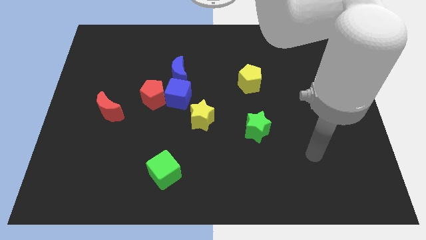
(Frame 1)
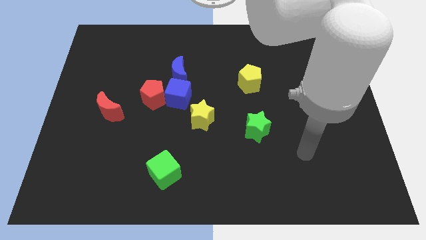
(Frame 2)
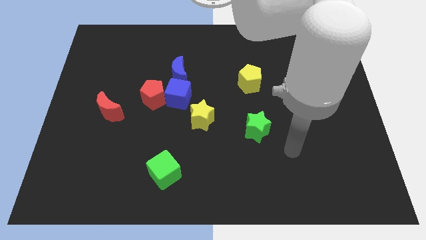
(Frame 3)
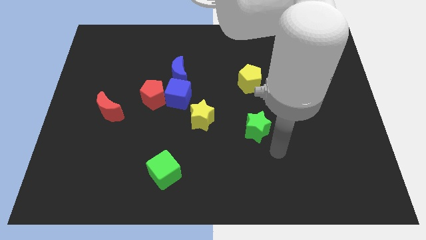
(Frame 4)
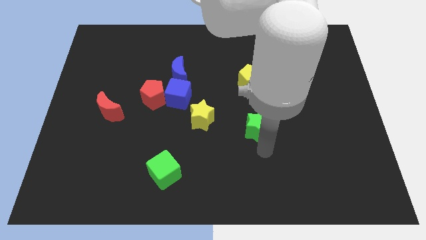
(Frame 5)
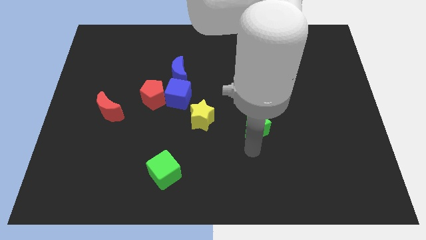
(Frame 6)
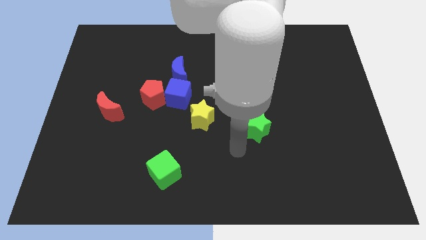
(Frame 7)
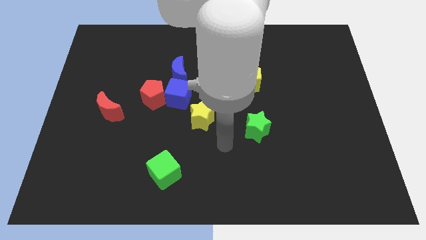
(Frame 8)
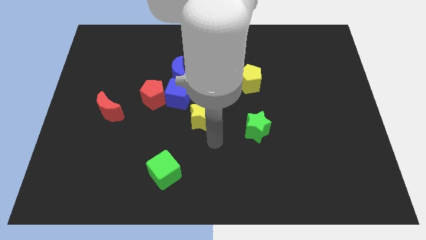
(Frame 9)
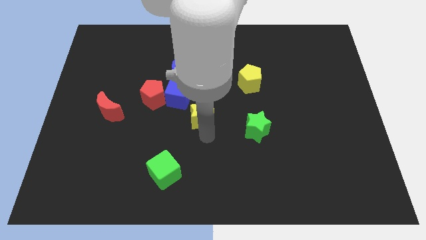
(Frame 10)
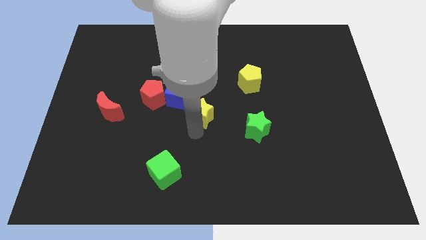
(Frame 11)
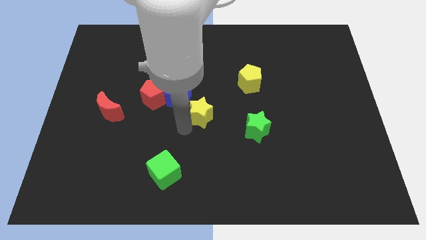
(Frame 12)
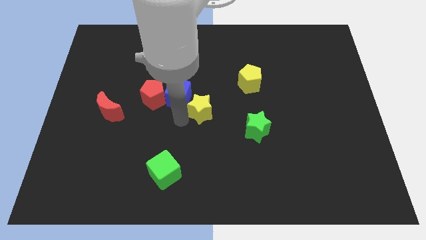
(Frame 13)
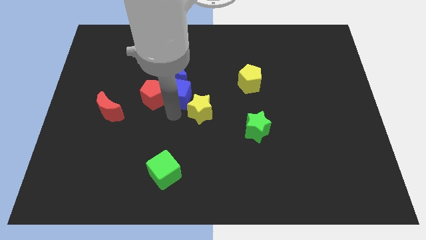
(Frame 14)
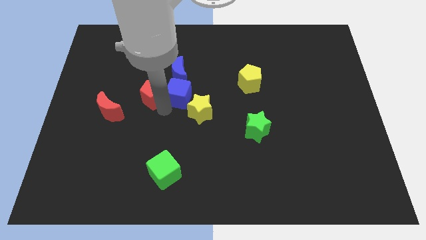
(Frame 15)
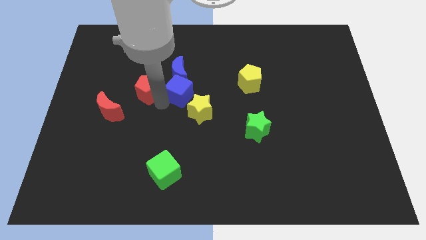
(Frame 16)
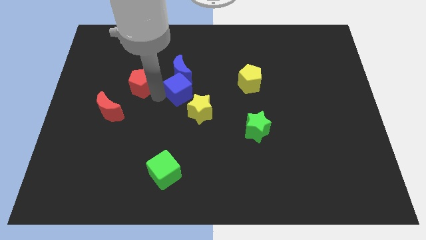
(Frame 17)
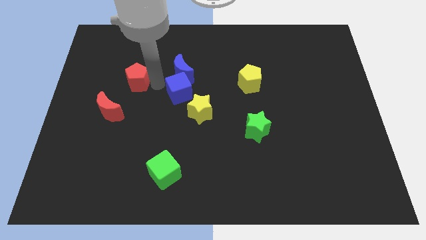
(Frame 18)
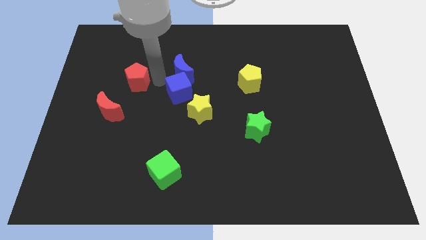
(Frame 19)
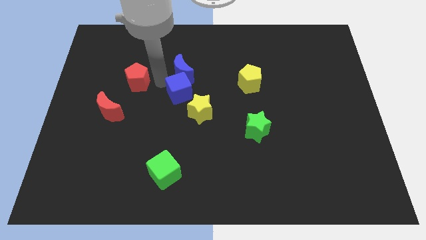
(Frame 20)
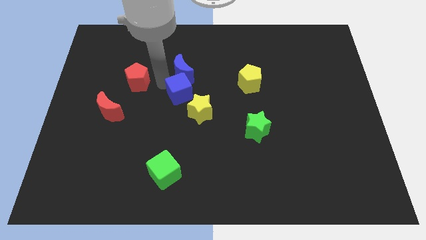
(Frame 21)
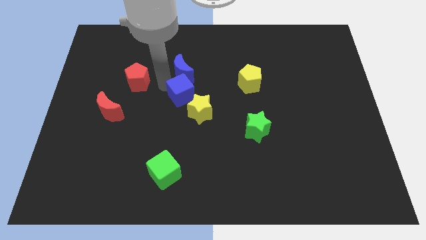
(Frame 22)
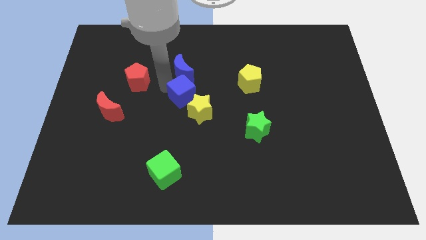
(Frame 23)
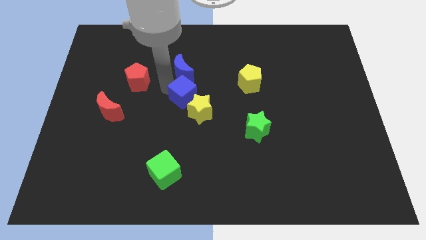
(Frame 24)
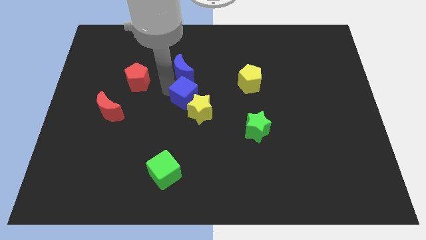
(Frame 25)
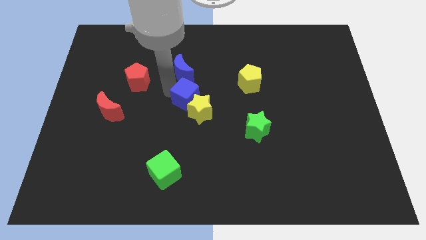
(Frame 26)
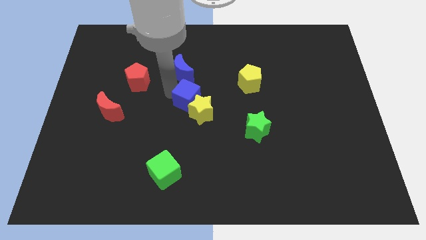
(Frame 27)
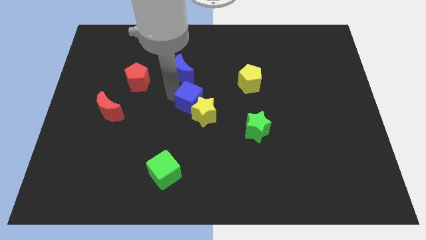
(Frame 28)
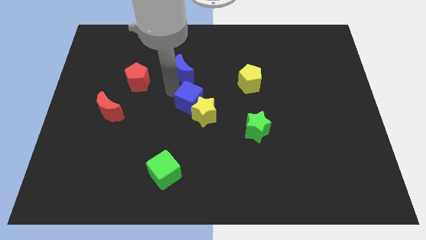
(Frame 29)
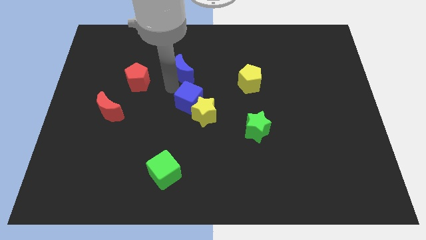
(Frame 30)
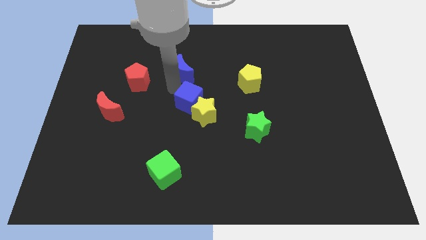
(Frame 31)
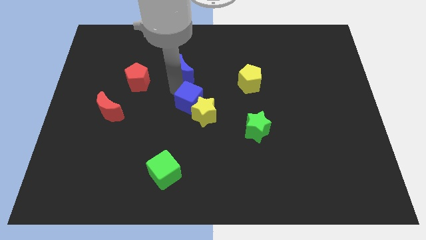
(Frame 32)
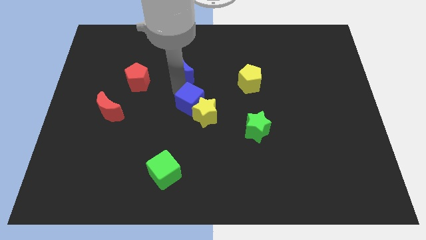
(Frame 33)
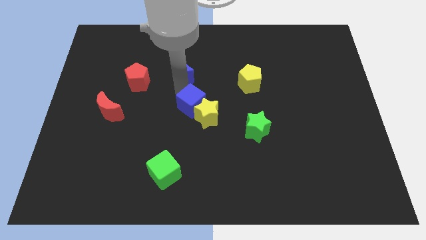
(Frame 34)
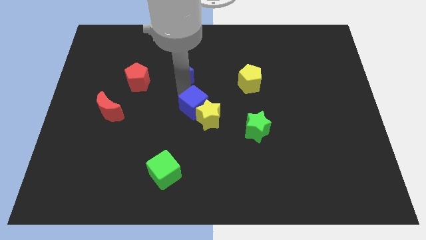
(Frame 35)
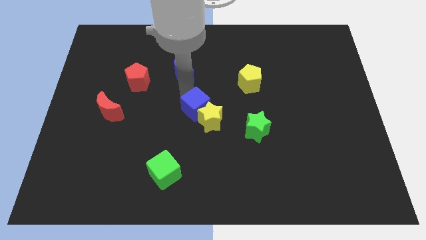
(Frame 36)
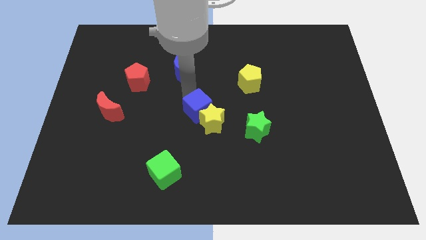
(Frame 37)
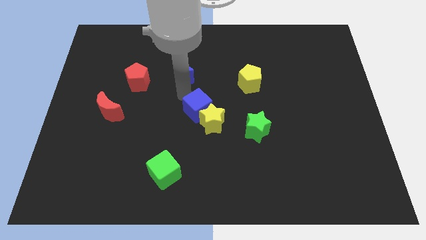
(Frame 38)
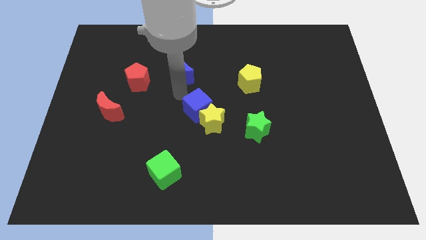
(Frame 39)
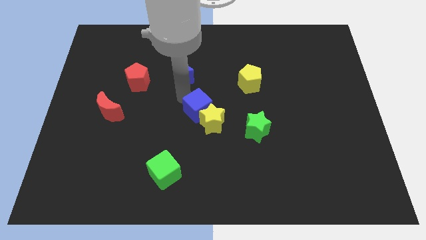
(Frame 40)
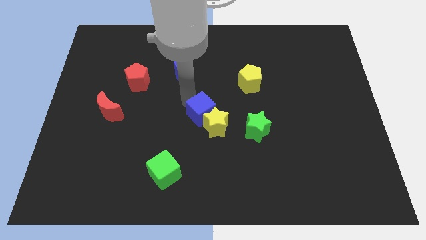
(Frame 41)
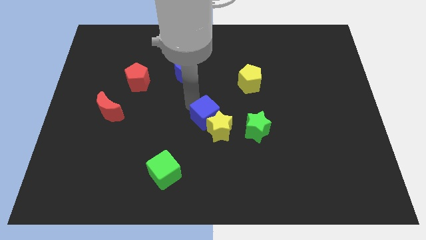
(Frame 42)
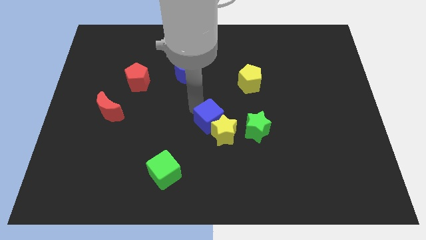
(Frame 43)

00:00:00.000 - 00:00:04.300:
pull the blue cube apart from the red pentagon, blue moon, and yellow star

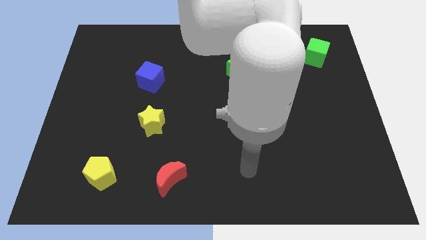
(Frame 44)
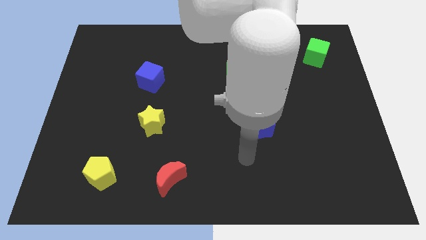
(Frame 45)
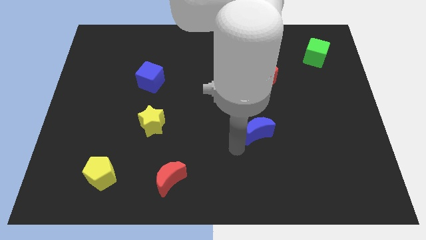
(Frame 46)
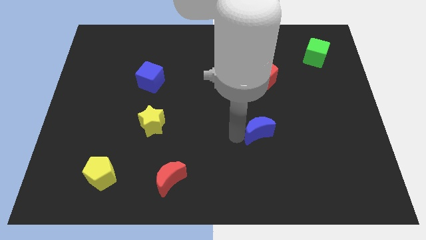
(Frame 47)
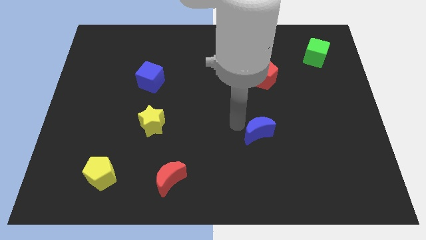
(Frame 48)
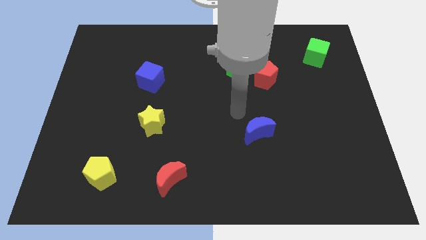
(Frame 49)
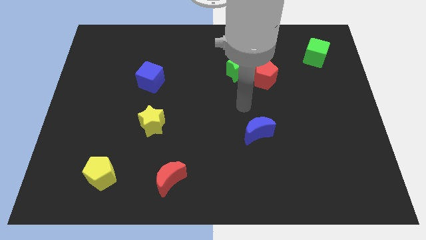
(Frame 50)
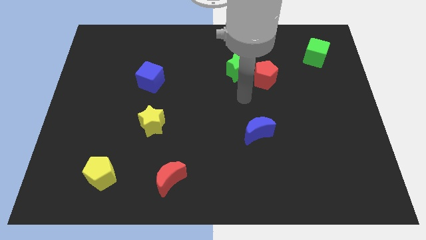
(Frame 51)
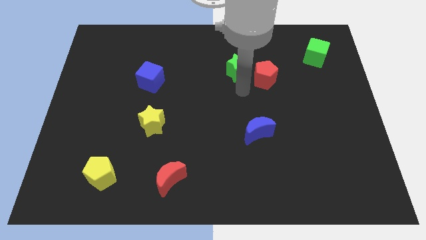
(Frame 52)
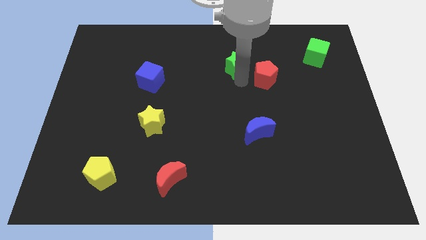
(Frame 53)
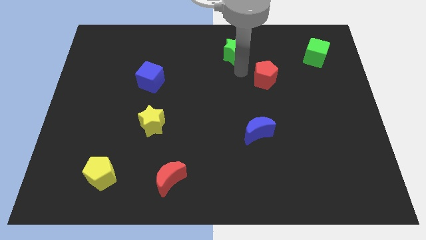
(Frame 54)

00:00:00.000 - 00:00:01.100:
pull the red pentagon apart from the green star

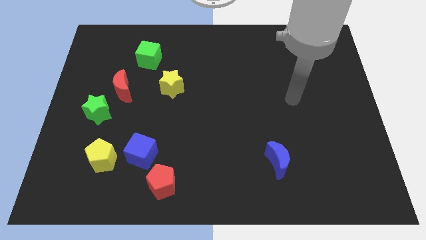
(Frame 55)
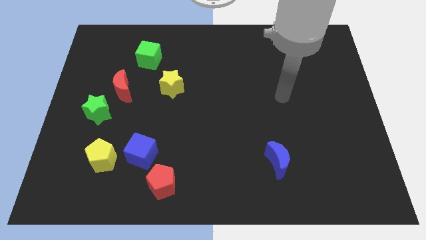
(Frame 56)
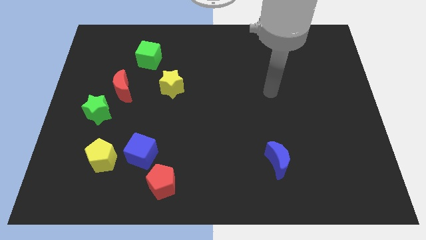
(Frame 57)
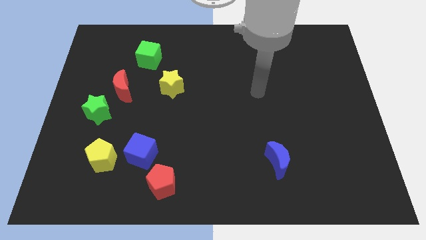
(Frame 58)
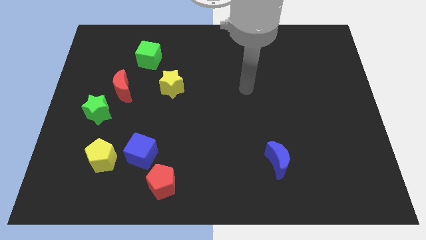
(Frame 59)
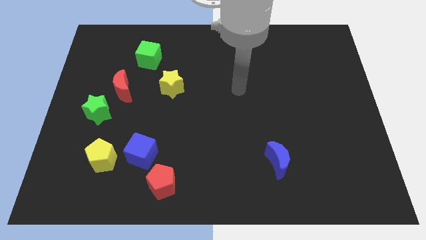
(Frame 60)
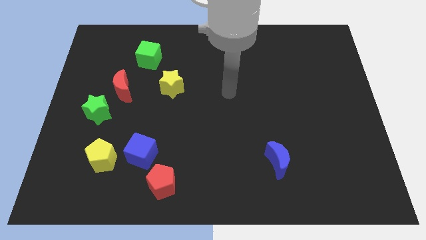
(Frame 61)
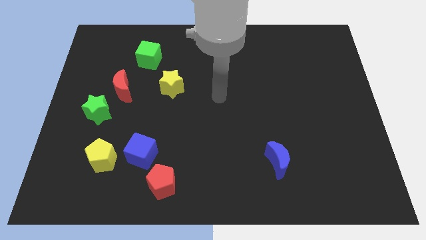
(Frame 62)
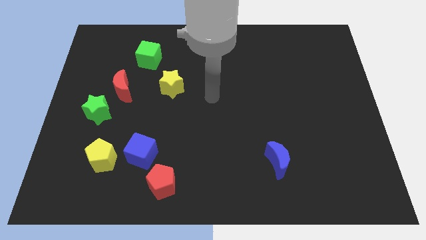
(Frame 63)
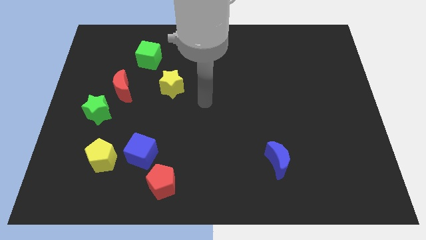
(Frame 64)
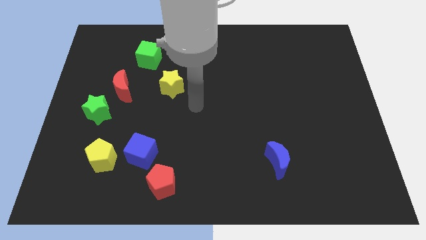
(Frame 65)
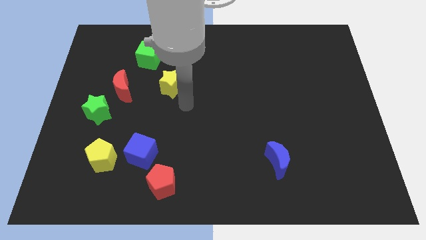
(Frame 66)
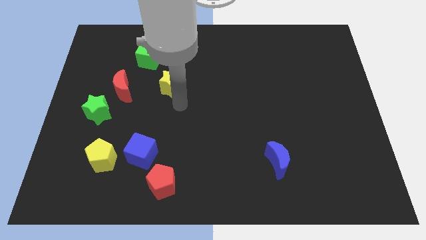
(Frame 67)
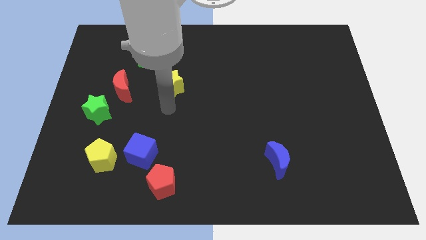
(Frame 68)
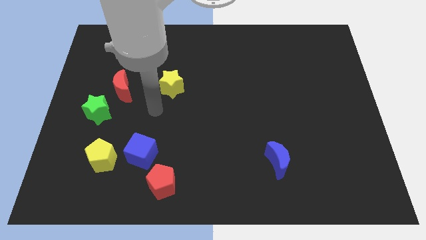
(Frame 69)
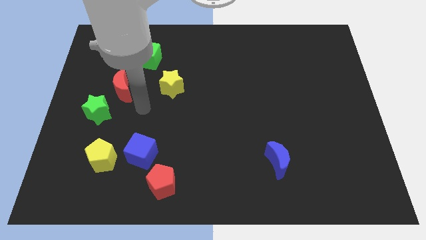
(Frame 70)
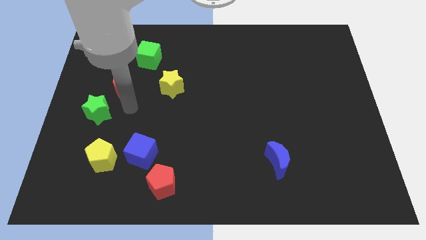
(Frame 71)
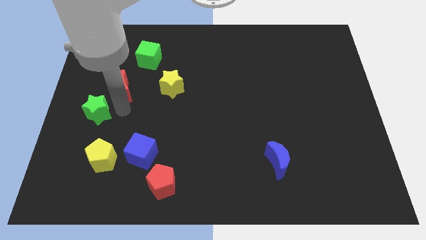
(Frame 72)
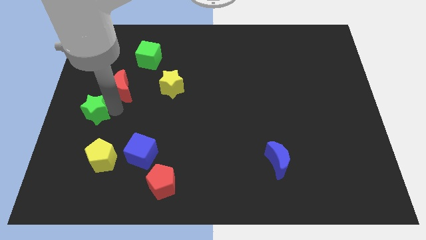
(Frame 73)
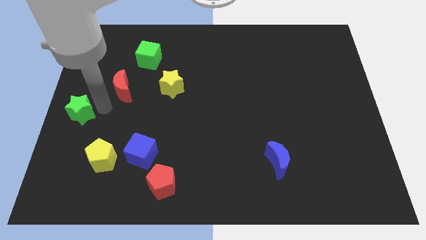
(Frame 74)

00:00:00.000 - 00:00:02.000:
pull the red moon apart from the green star

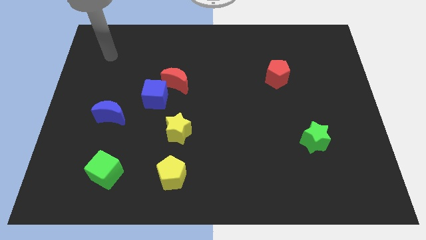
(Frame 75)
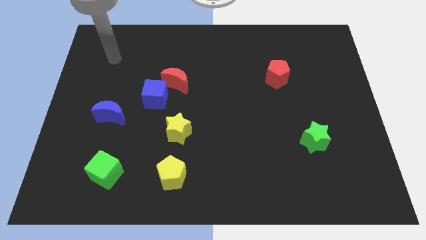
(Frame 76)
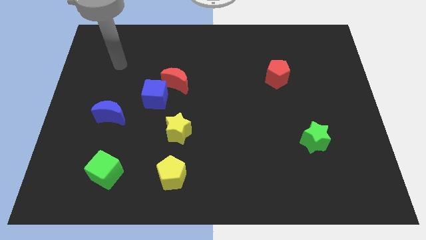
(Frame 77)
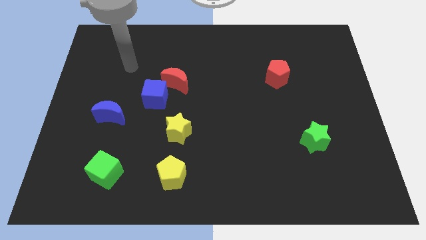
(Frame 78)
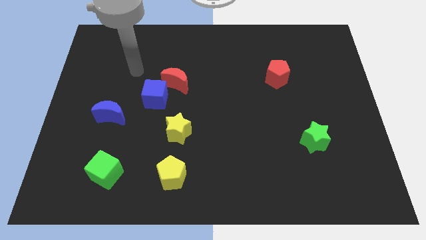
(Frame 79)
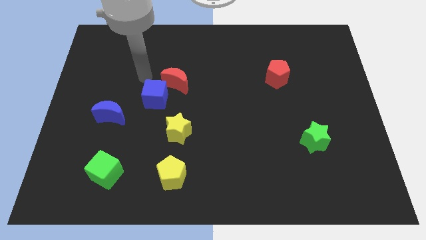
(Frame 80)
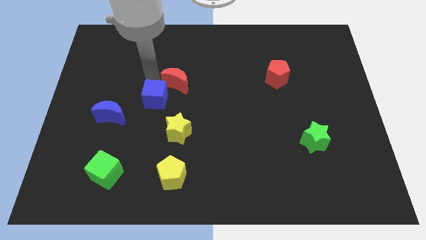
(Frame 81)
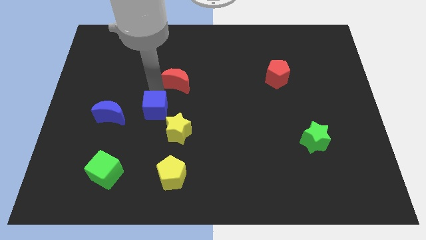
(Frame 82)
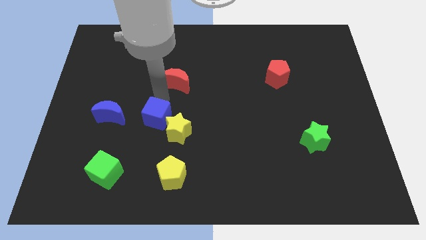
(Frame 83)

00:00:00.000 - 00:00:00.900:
separate the red moon from the blue cube

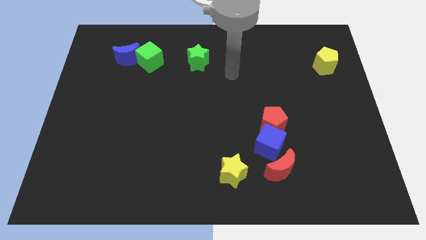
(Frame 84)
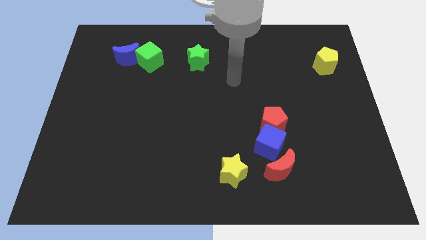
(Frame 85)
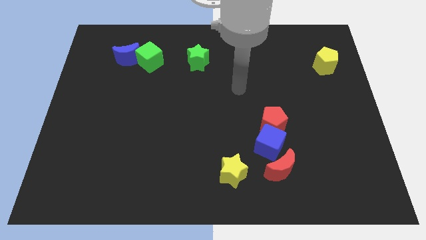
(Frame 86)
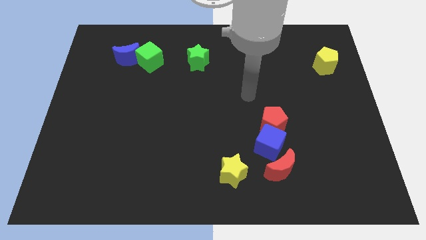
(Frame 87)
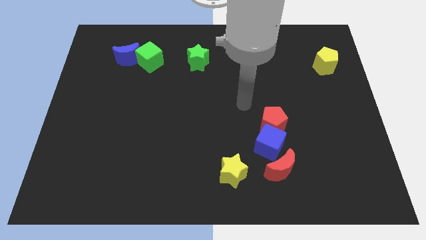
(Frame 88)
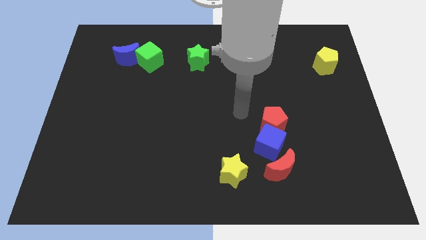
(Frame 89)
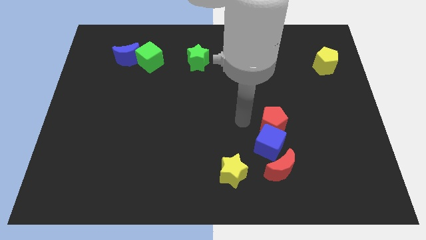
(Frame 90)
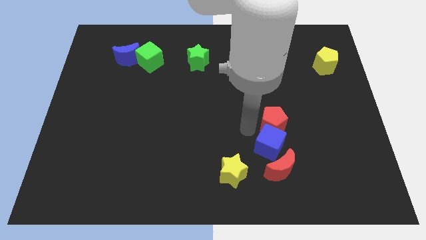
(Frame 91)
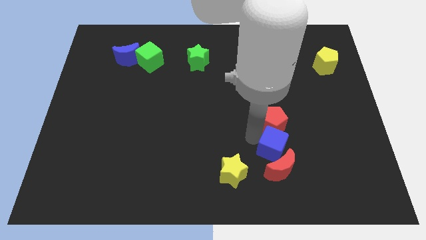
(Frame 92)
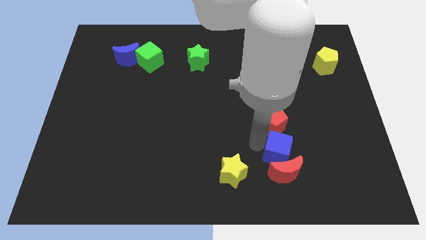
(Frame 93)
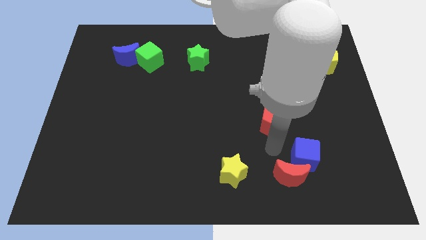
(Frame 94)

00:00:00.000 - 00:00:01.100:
separate the red pentagon from the blue cube
